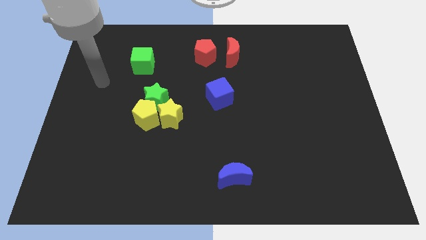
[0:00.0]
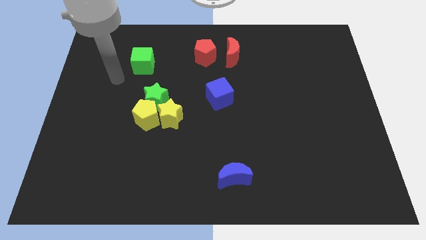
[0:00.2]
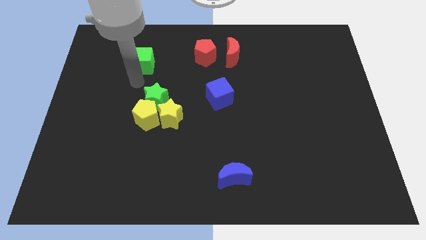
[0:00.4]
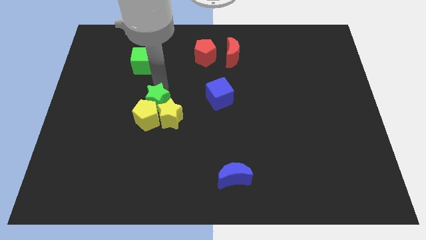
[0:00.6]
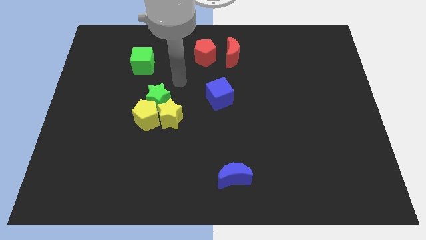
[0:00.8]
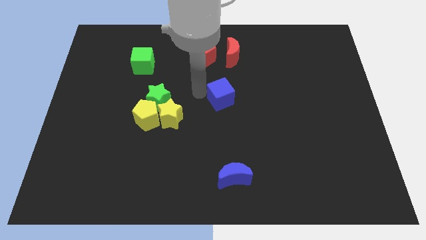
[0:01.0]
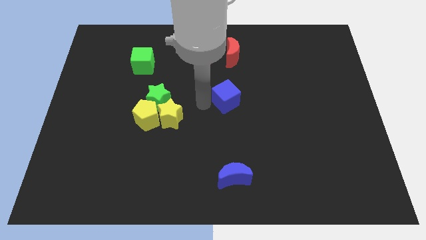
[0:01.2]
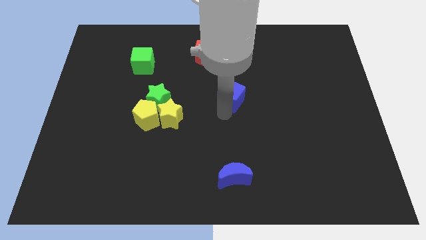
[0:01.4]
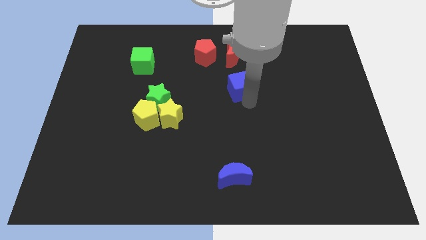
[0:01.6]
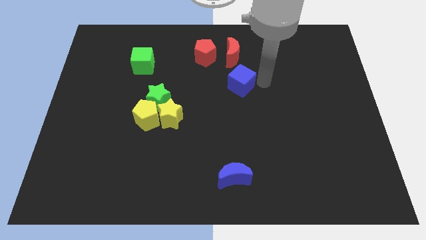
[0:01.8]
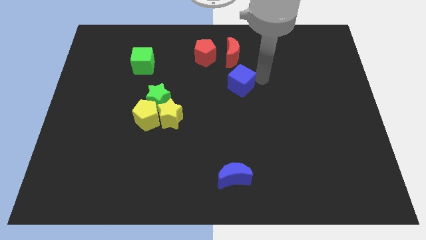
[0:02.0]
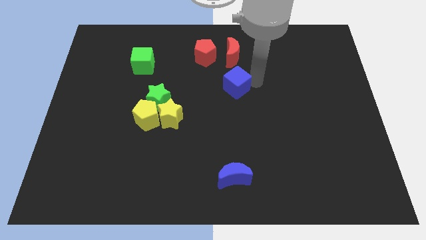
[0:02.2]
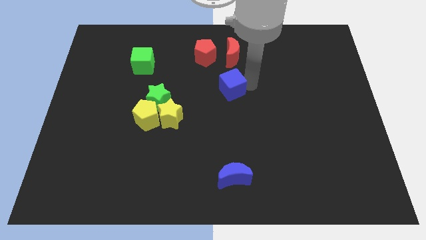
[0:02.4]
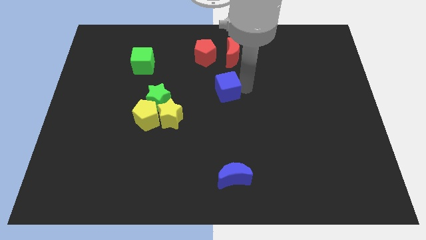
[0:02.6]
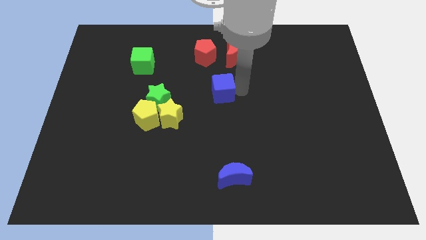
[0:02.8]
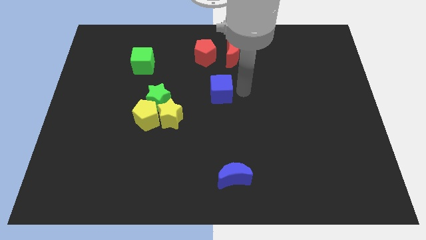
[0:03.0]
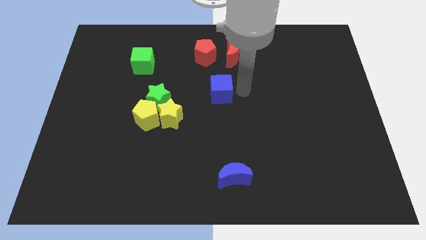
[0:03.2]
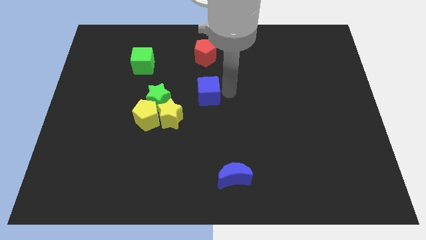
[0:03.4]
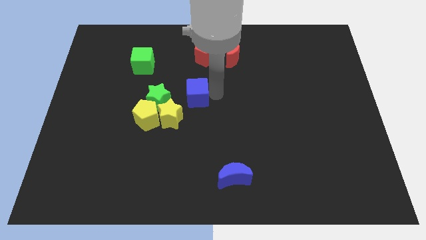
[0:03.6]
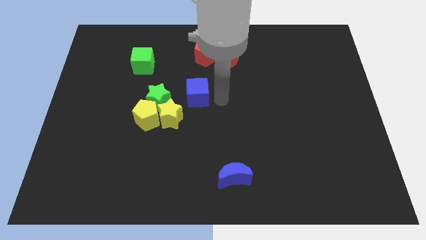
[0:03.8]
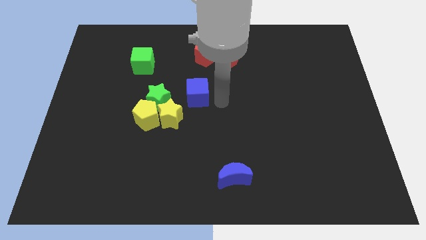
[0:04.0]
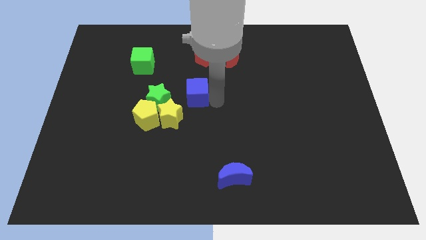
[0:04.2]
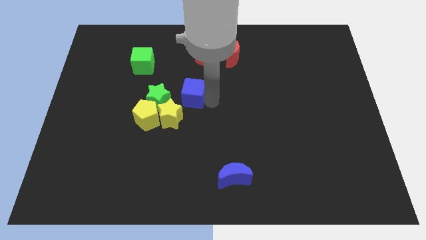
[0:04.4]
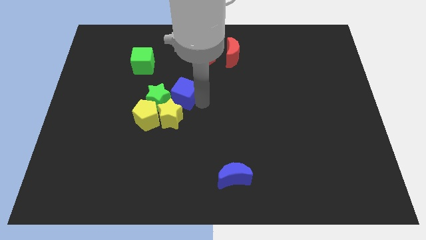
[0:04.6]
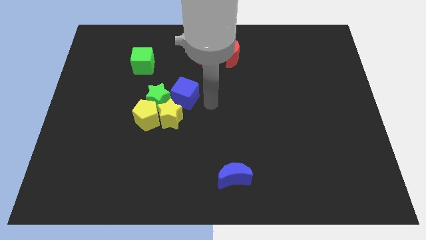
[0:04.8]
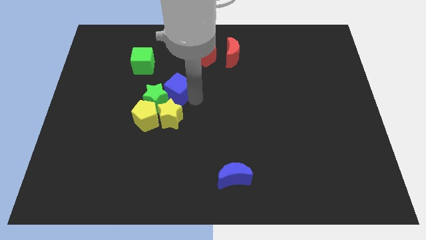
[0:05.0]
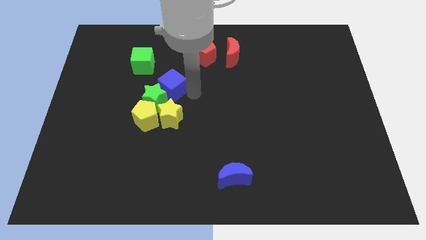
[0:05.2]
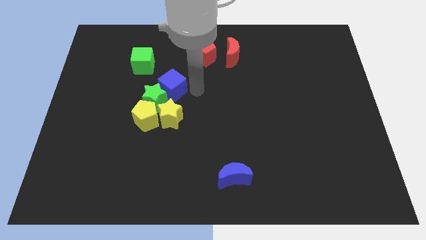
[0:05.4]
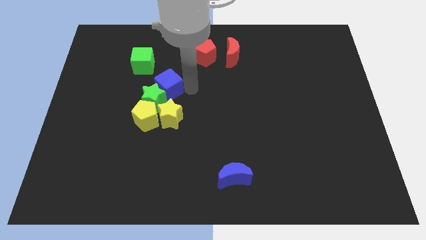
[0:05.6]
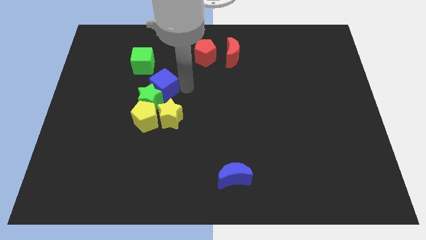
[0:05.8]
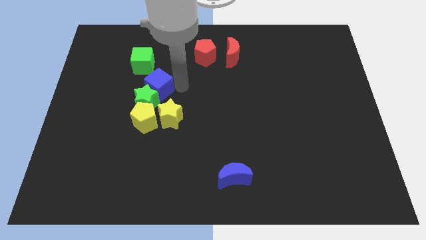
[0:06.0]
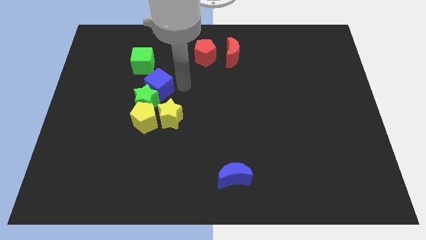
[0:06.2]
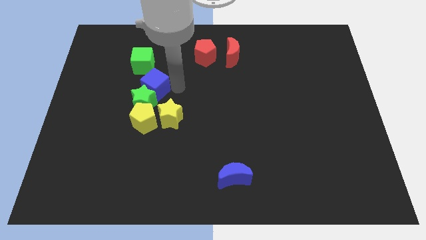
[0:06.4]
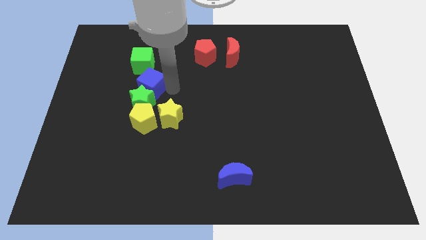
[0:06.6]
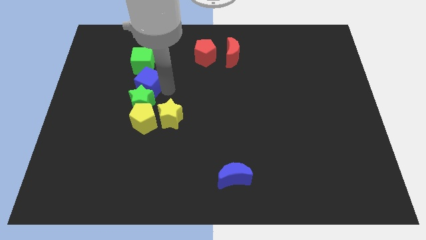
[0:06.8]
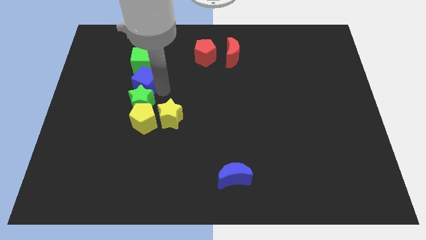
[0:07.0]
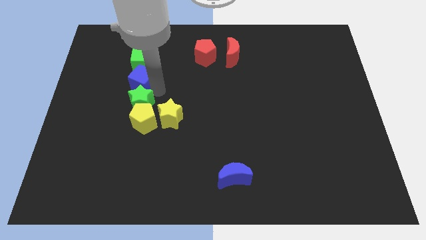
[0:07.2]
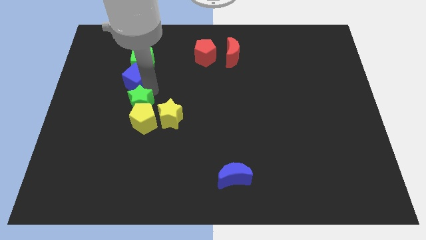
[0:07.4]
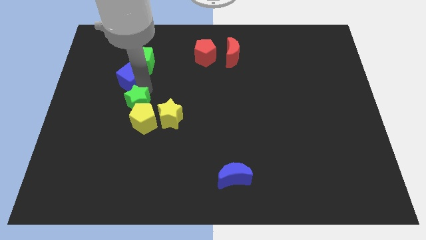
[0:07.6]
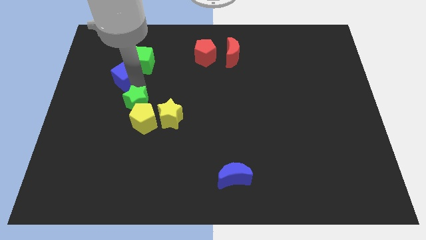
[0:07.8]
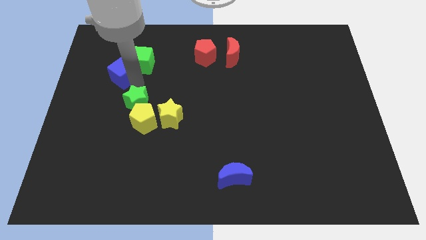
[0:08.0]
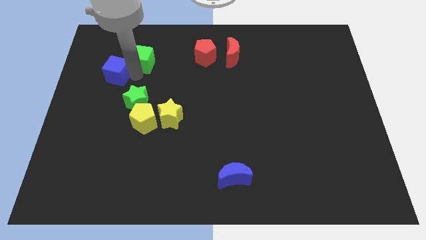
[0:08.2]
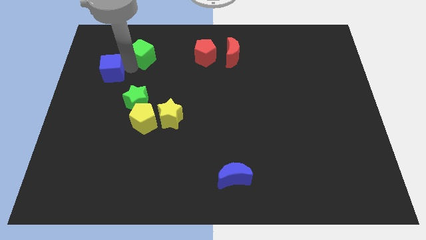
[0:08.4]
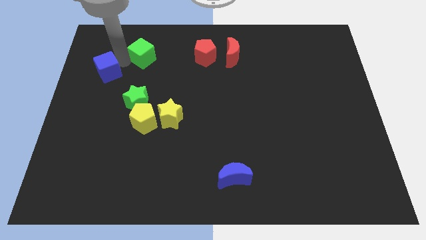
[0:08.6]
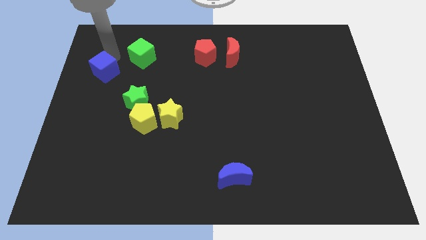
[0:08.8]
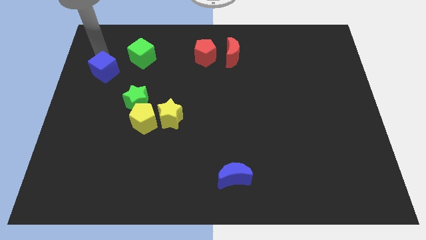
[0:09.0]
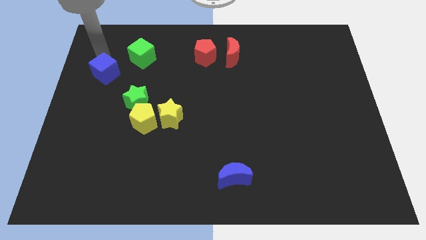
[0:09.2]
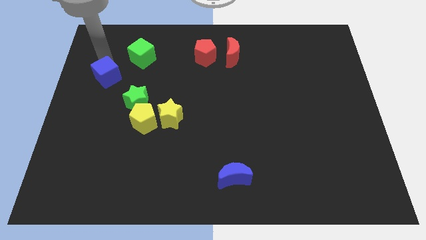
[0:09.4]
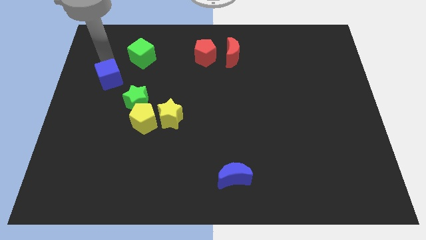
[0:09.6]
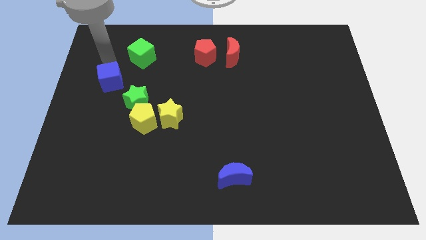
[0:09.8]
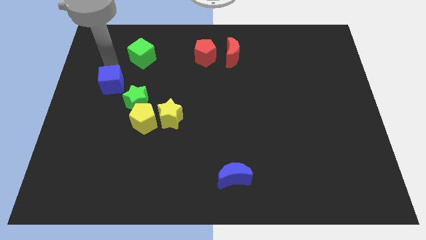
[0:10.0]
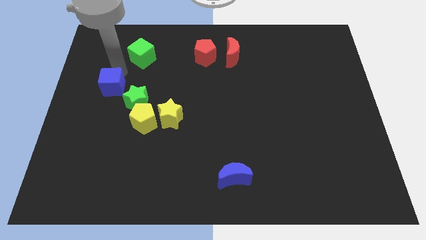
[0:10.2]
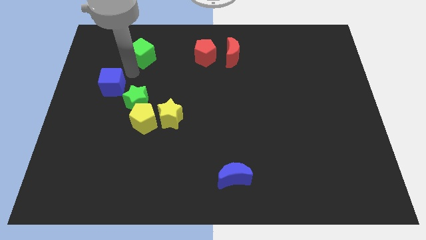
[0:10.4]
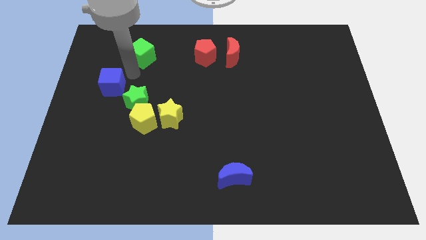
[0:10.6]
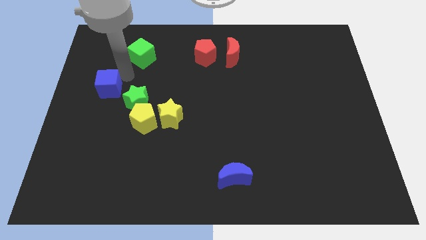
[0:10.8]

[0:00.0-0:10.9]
move the blue cube to the left side of the board

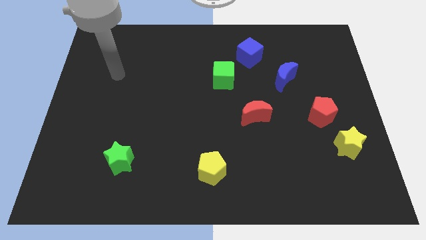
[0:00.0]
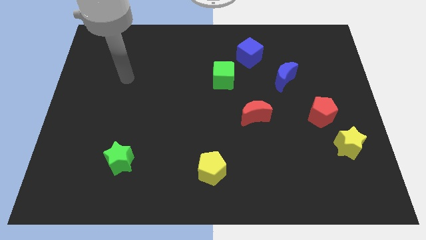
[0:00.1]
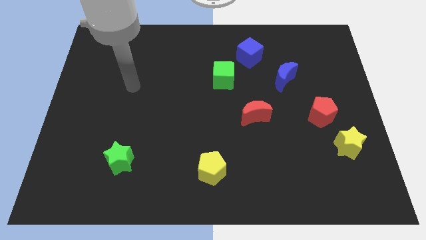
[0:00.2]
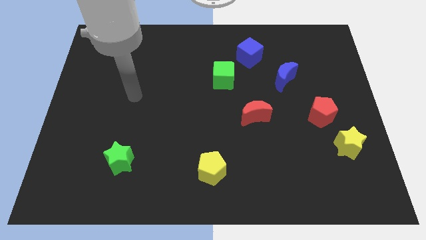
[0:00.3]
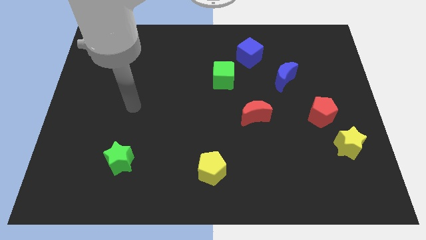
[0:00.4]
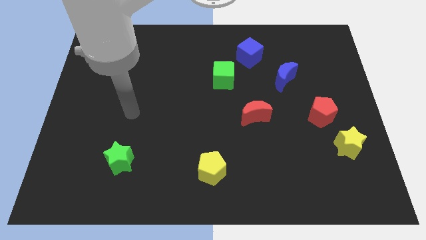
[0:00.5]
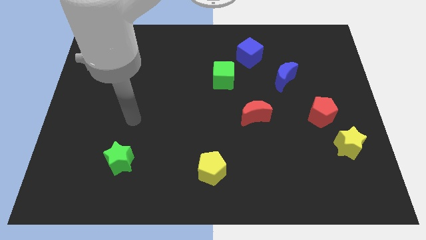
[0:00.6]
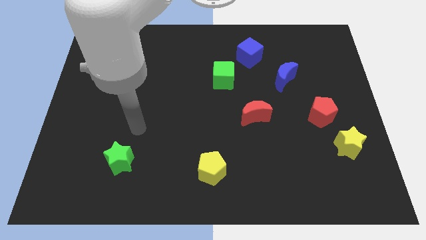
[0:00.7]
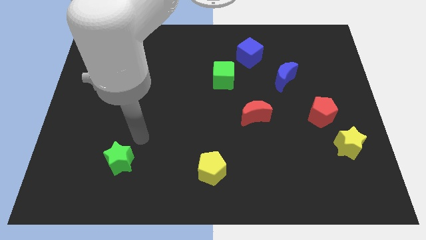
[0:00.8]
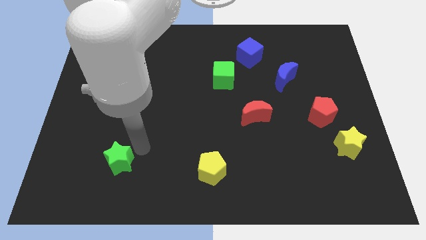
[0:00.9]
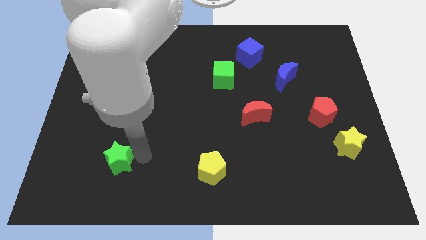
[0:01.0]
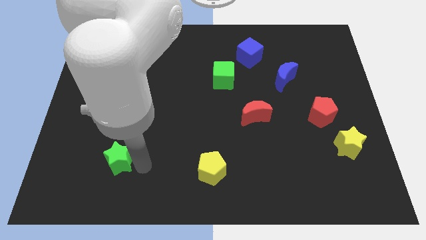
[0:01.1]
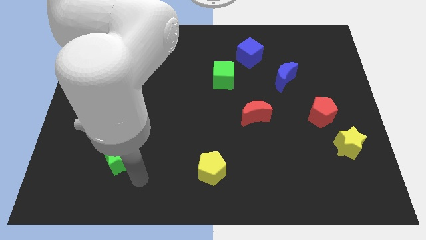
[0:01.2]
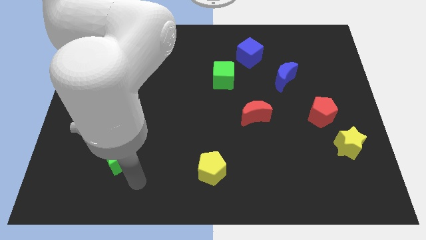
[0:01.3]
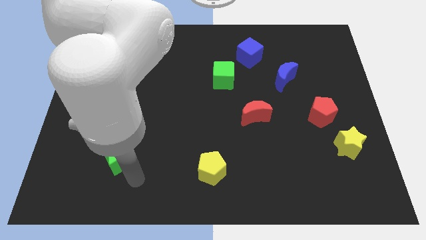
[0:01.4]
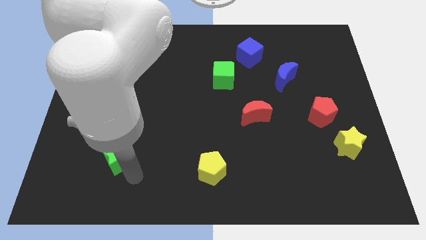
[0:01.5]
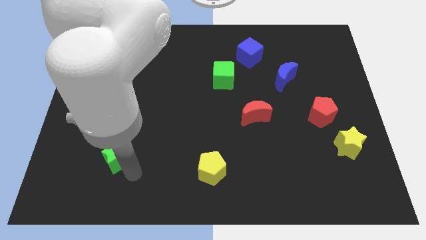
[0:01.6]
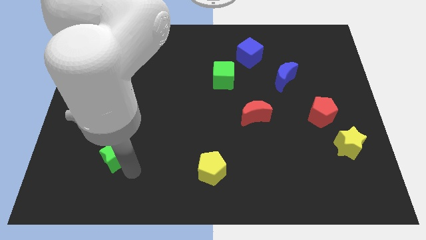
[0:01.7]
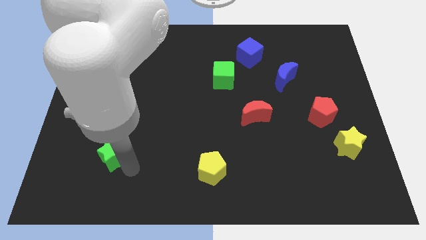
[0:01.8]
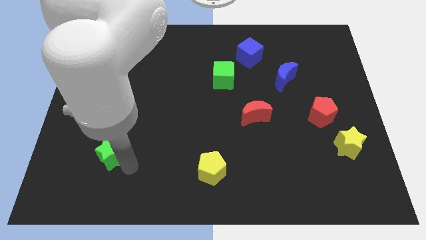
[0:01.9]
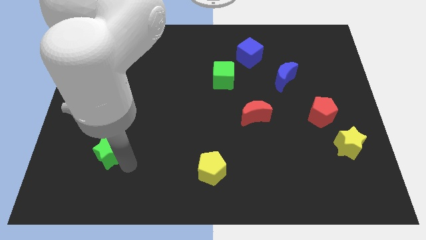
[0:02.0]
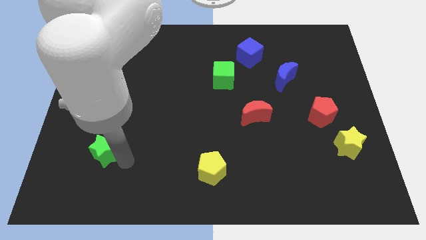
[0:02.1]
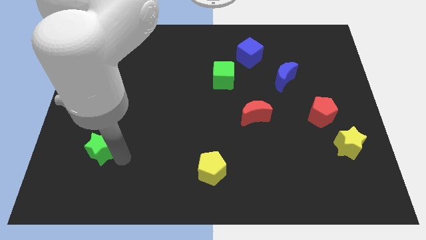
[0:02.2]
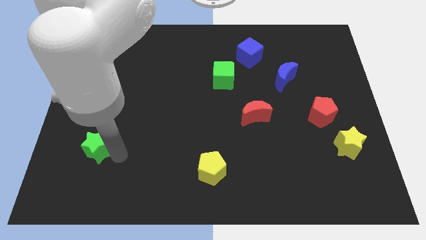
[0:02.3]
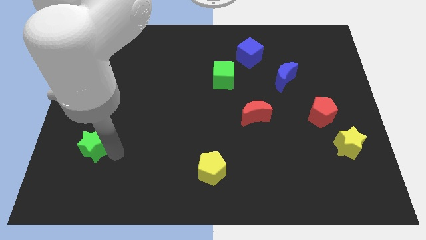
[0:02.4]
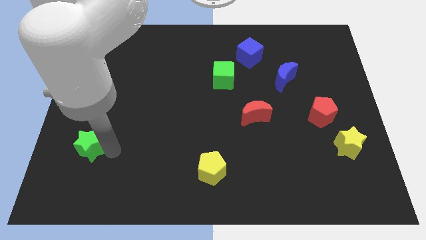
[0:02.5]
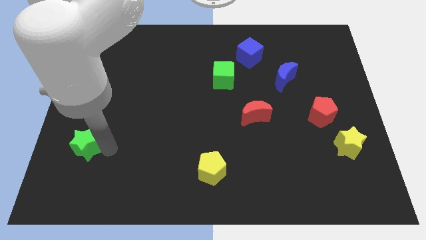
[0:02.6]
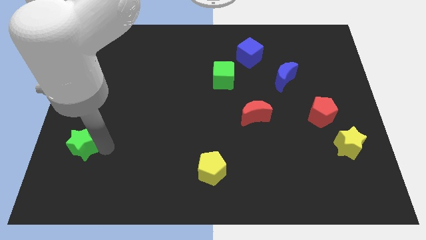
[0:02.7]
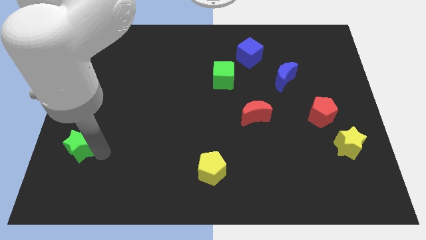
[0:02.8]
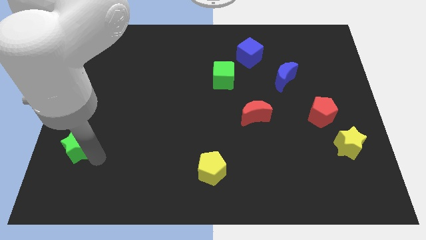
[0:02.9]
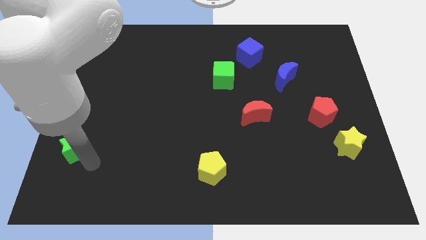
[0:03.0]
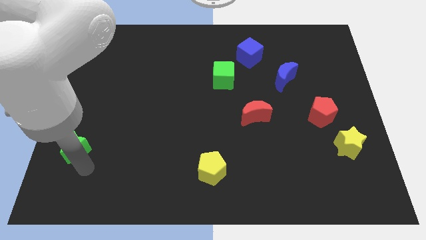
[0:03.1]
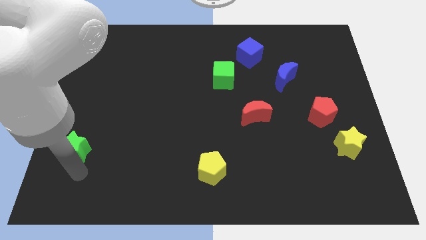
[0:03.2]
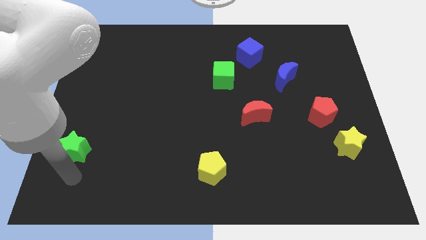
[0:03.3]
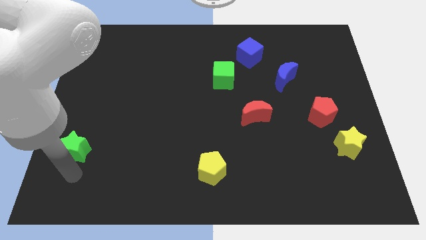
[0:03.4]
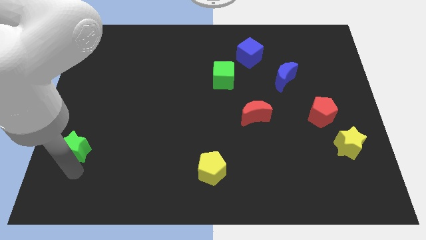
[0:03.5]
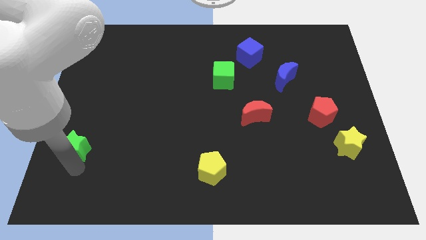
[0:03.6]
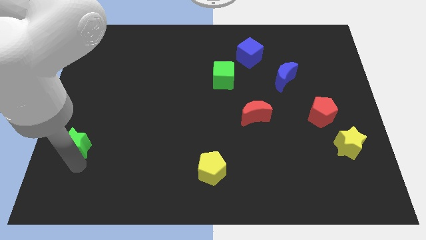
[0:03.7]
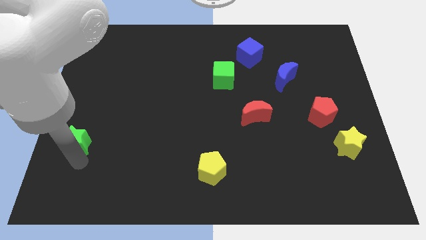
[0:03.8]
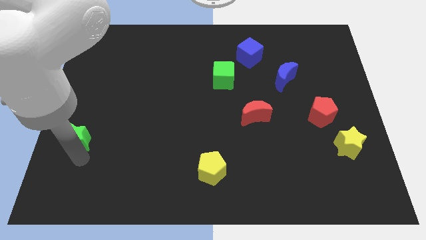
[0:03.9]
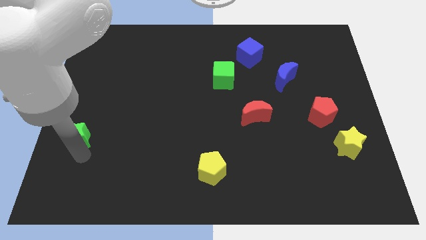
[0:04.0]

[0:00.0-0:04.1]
put the green star to the left side of the board
